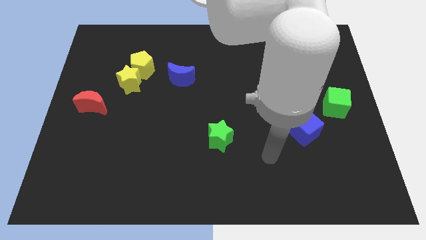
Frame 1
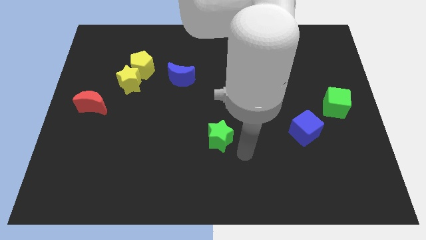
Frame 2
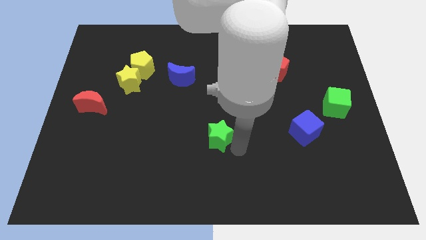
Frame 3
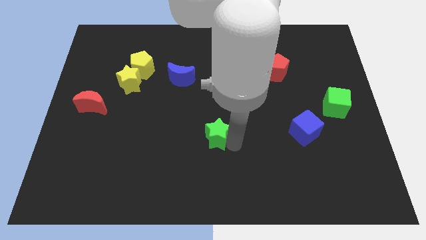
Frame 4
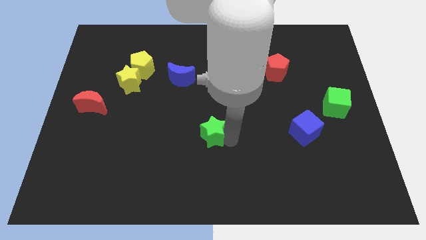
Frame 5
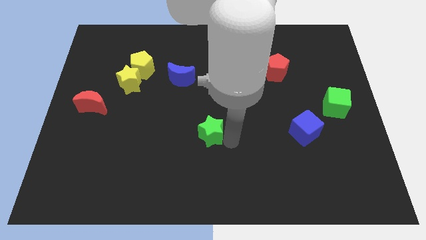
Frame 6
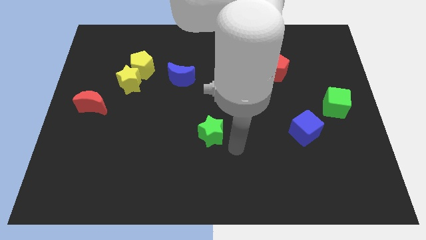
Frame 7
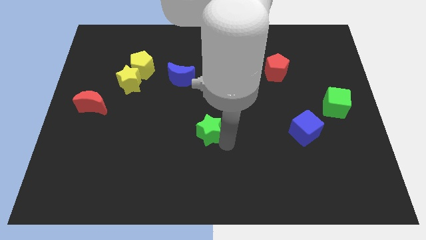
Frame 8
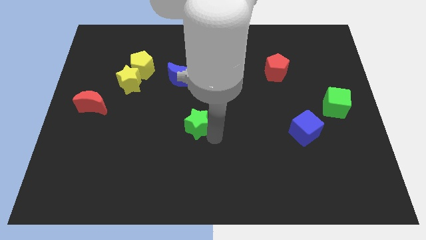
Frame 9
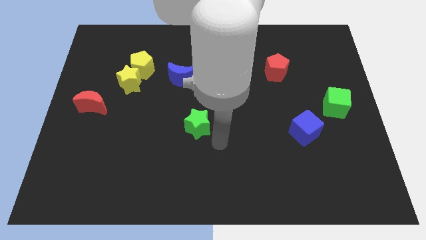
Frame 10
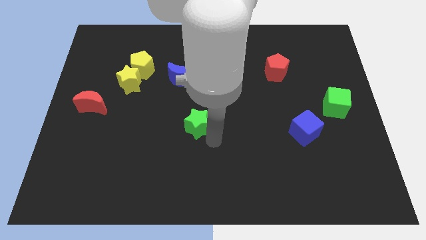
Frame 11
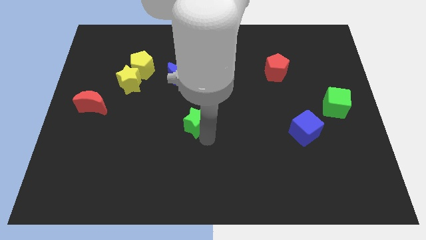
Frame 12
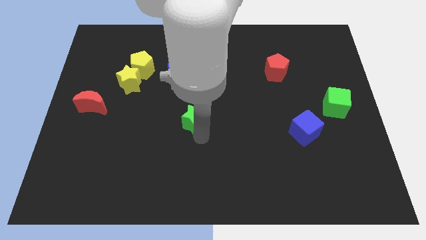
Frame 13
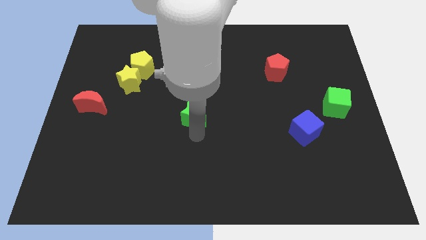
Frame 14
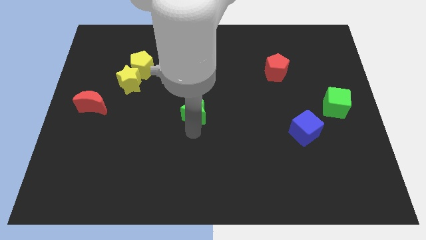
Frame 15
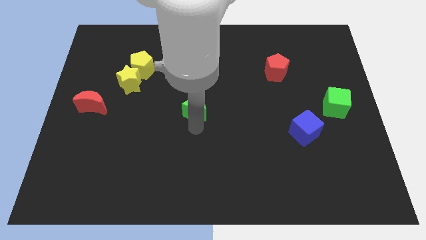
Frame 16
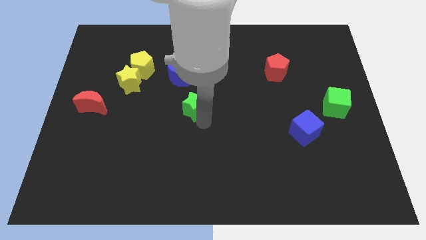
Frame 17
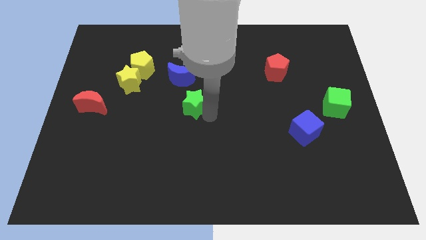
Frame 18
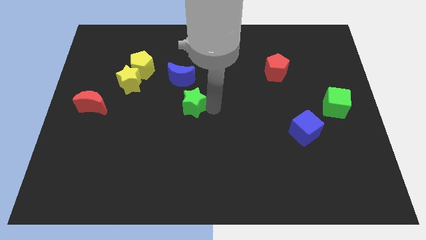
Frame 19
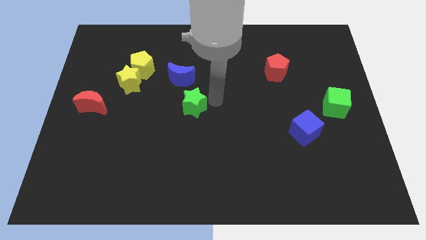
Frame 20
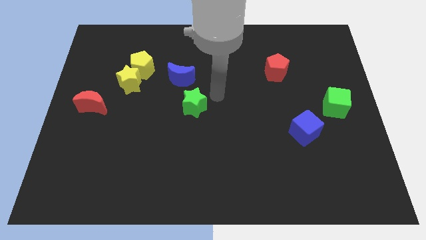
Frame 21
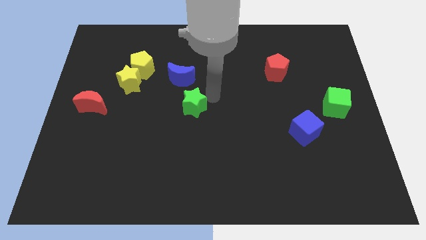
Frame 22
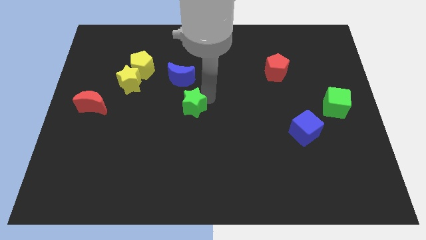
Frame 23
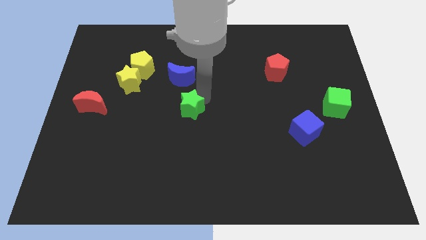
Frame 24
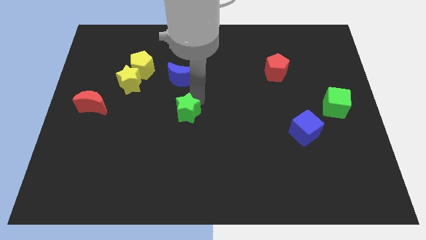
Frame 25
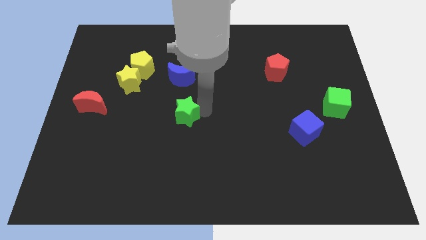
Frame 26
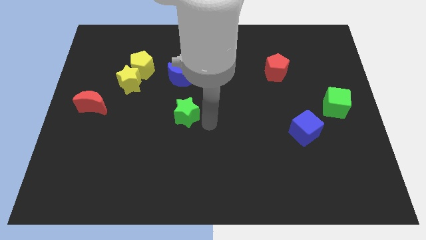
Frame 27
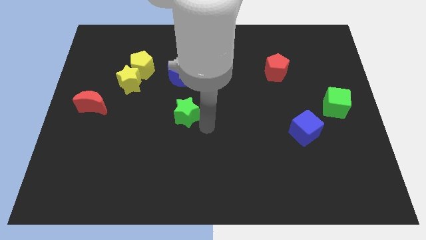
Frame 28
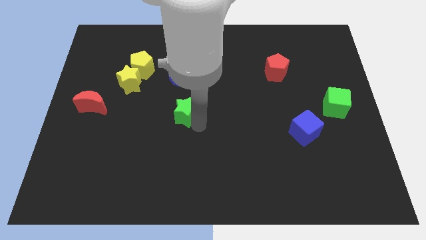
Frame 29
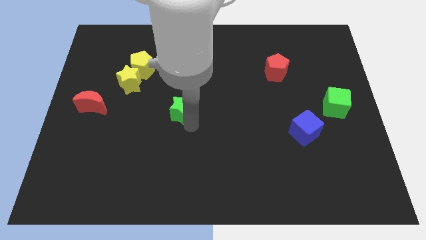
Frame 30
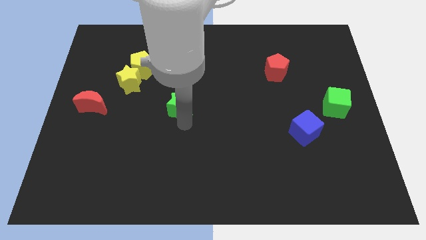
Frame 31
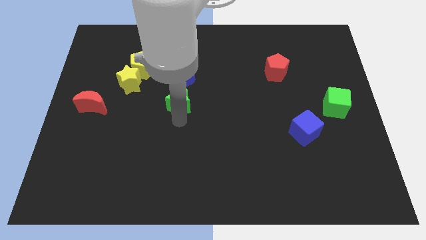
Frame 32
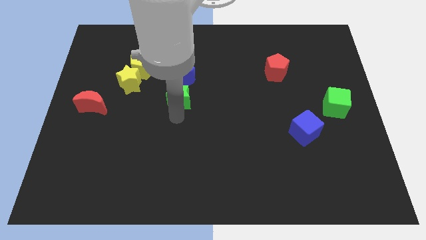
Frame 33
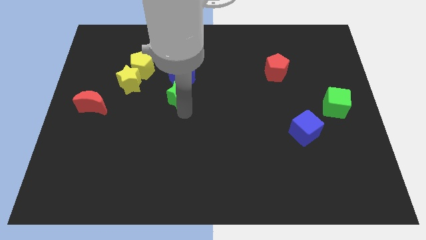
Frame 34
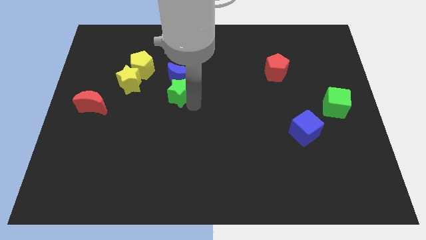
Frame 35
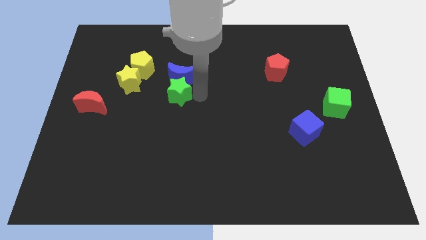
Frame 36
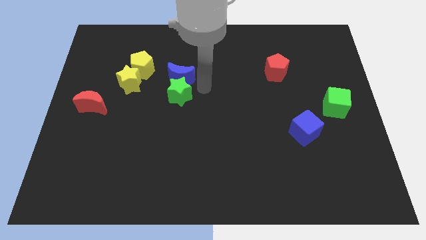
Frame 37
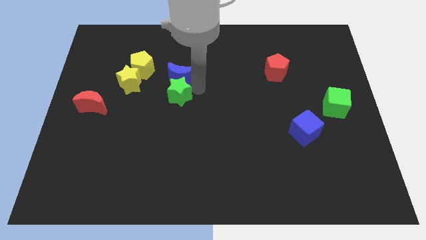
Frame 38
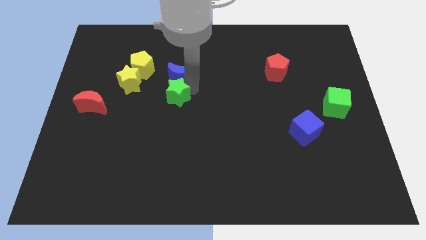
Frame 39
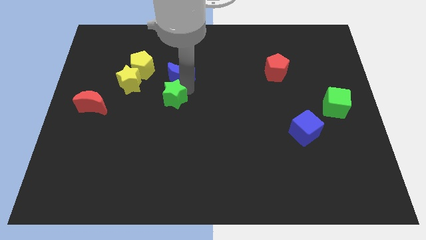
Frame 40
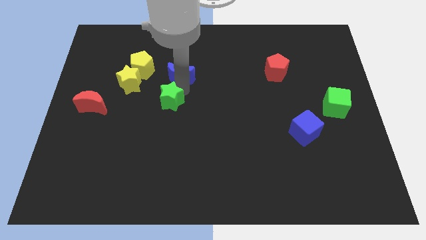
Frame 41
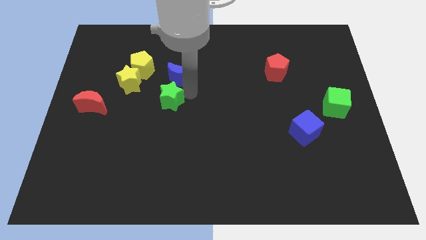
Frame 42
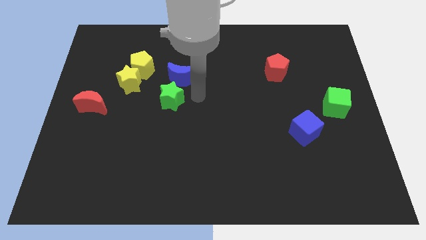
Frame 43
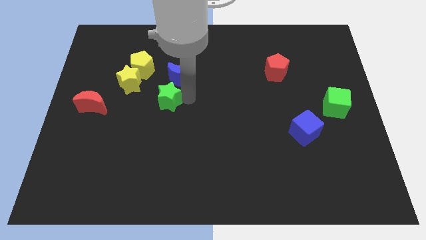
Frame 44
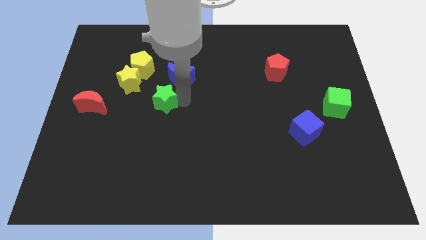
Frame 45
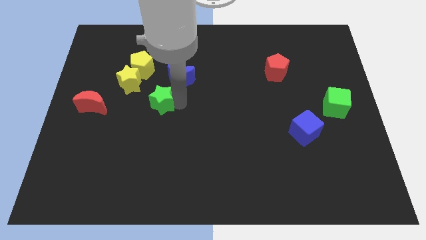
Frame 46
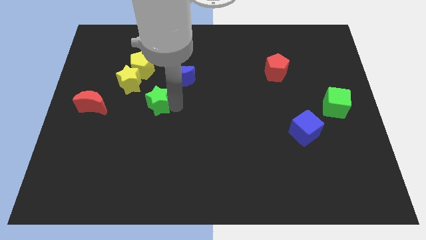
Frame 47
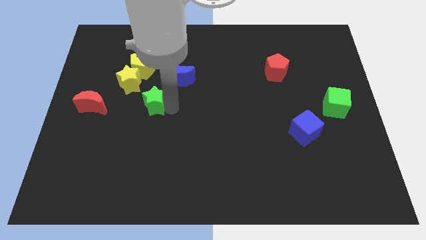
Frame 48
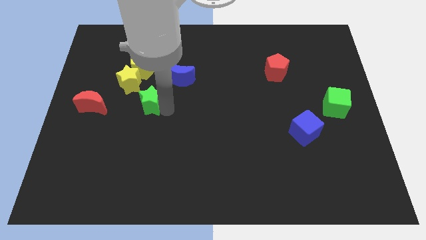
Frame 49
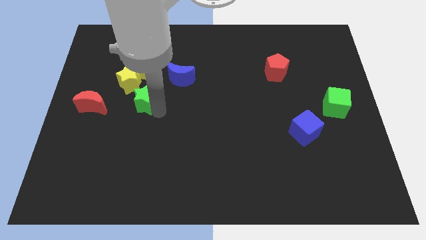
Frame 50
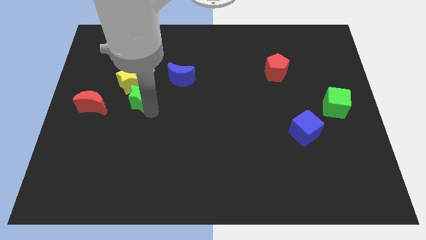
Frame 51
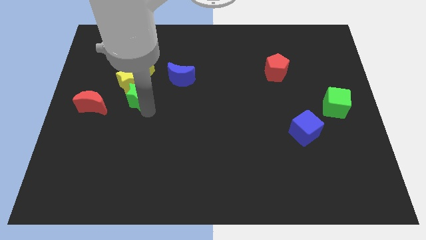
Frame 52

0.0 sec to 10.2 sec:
push the green star to the yellow star

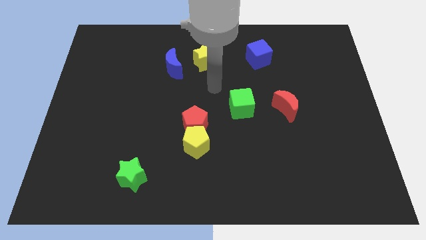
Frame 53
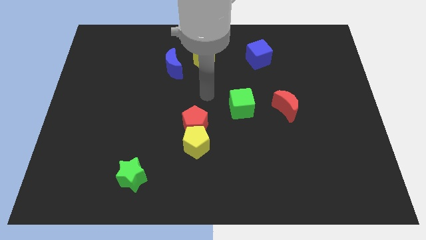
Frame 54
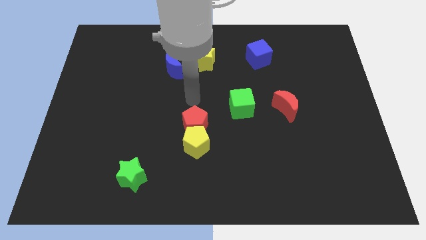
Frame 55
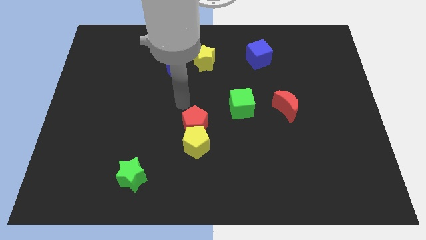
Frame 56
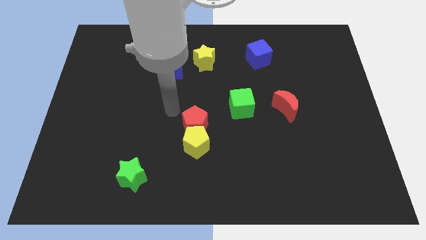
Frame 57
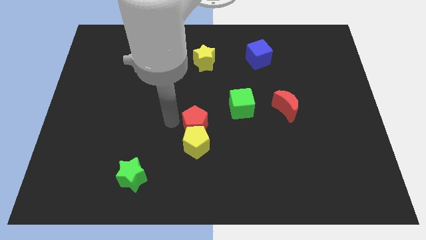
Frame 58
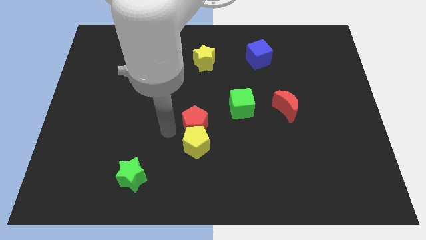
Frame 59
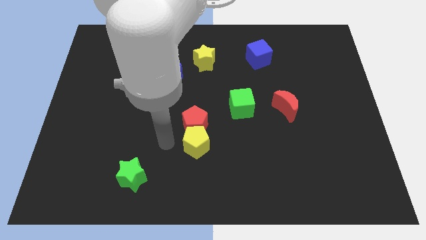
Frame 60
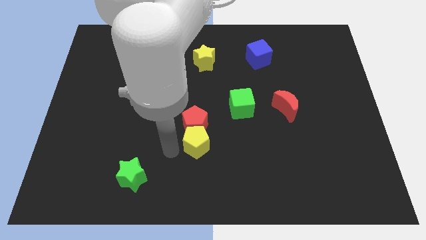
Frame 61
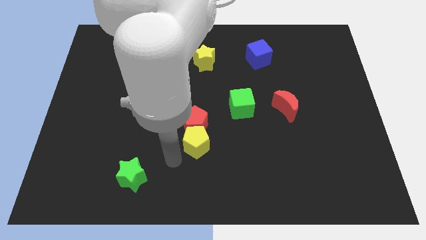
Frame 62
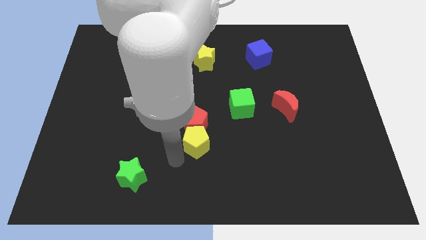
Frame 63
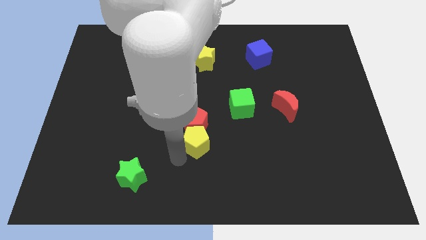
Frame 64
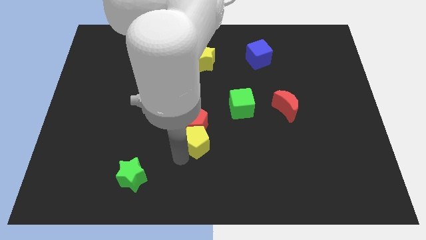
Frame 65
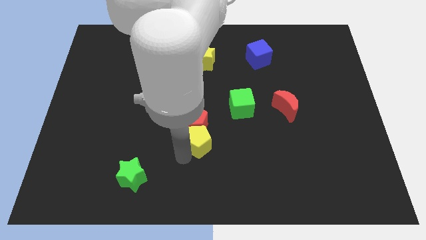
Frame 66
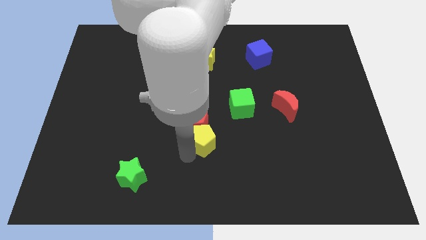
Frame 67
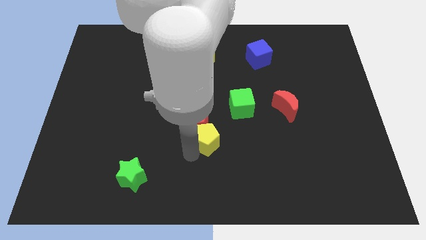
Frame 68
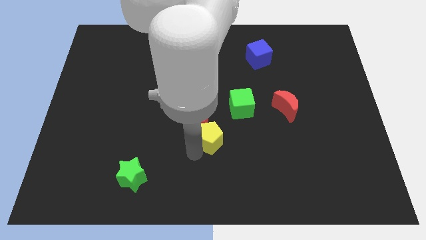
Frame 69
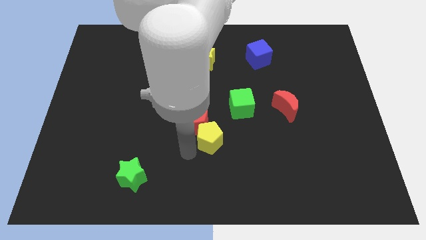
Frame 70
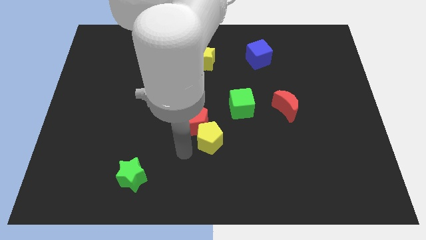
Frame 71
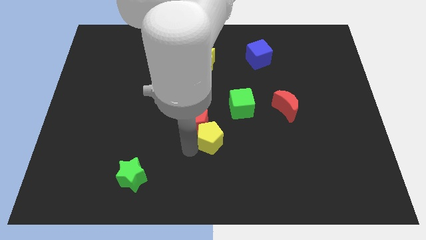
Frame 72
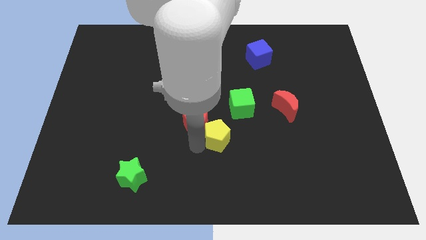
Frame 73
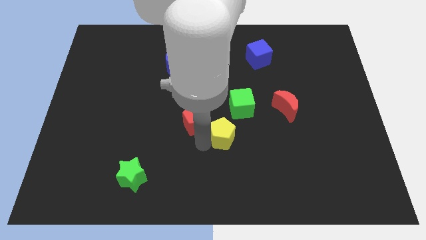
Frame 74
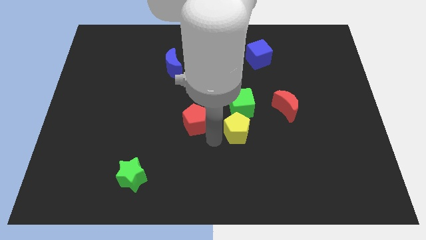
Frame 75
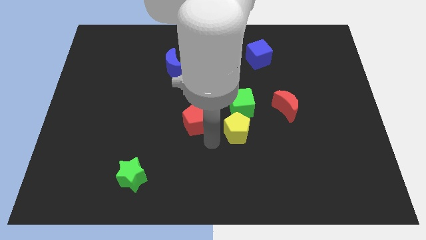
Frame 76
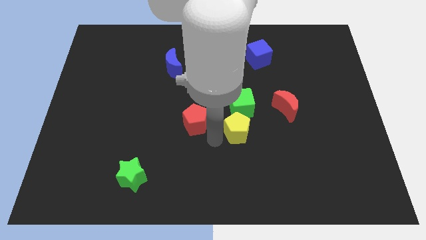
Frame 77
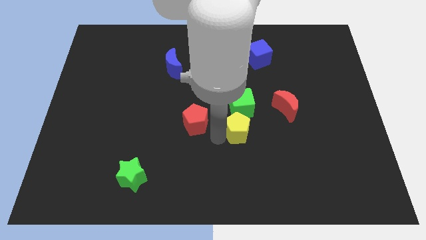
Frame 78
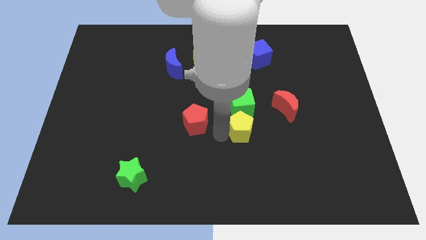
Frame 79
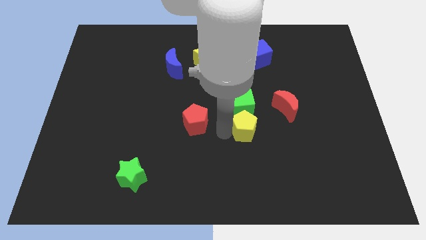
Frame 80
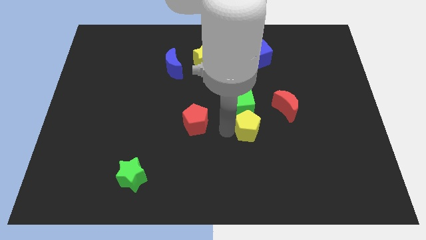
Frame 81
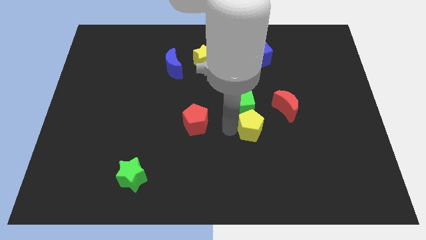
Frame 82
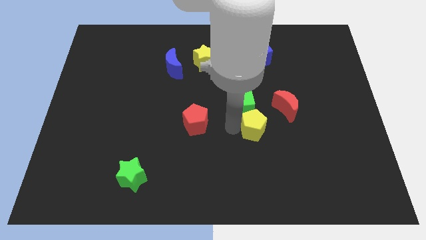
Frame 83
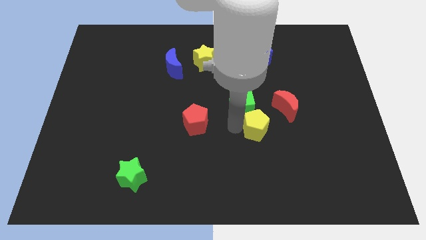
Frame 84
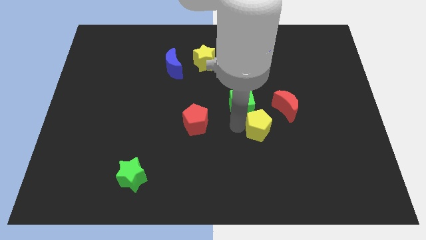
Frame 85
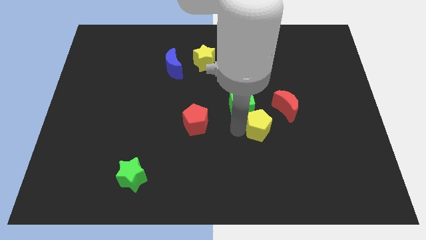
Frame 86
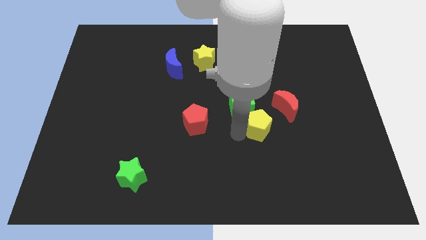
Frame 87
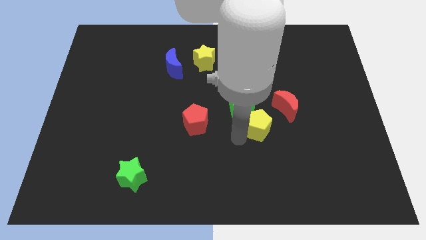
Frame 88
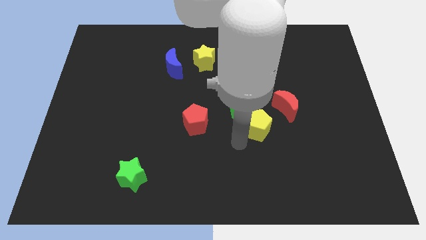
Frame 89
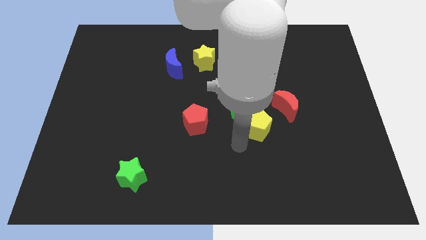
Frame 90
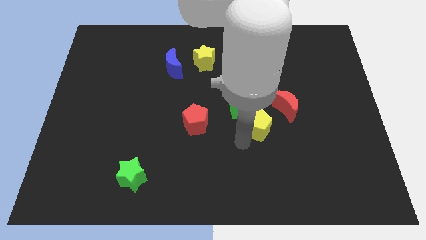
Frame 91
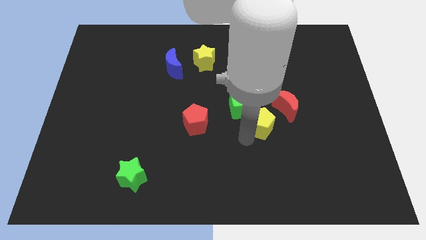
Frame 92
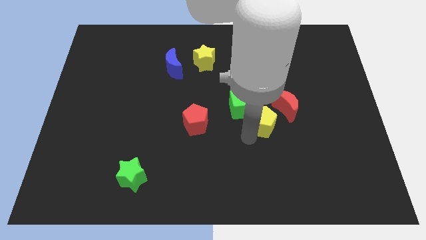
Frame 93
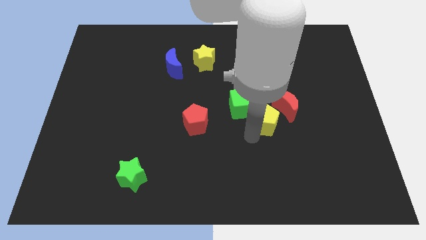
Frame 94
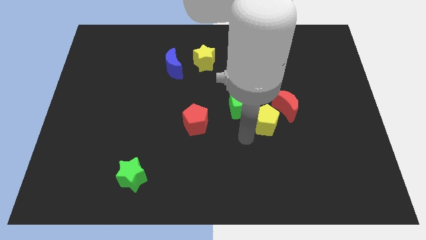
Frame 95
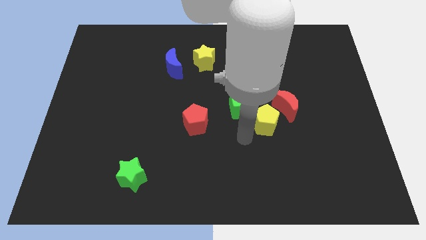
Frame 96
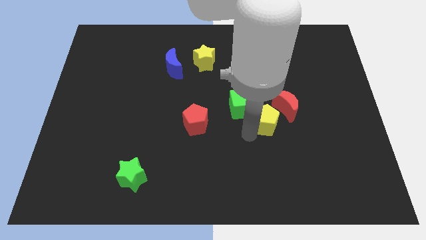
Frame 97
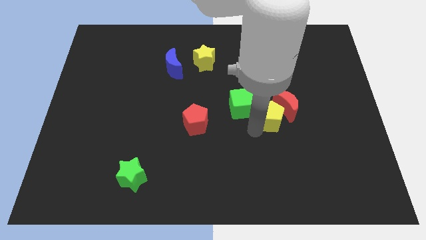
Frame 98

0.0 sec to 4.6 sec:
push the yellow pentagon next to the red moon
